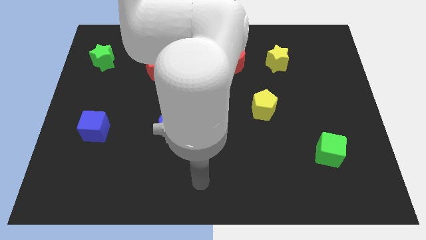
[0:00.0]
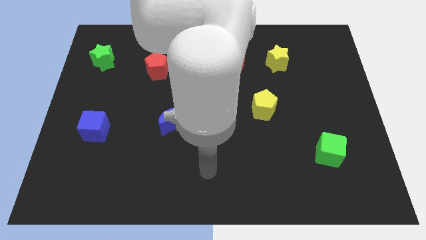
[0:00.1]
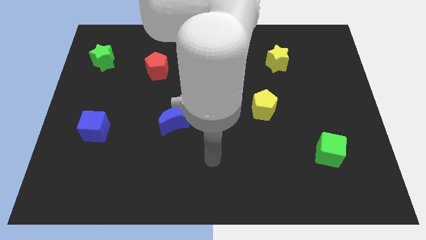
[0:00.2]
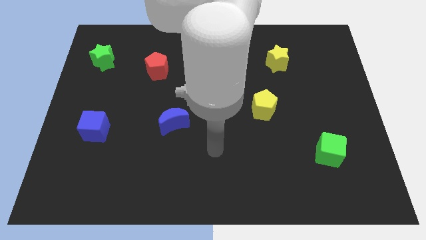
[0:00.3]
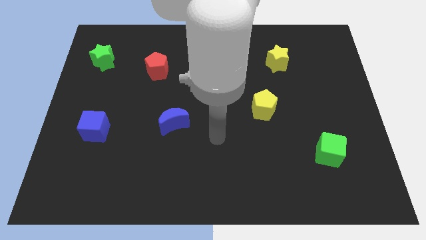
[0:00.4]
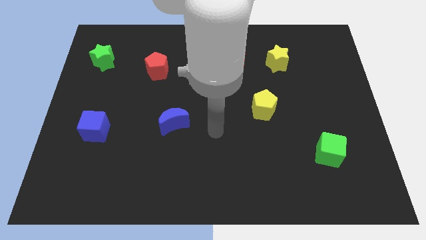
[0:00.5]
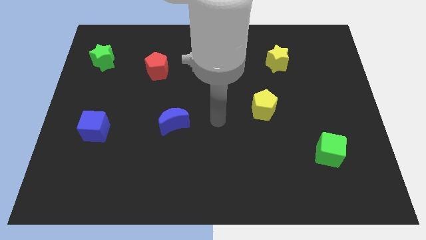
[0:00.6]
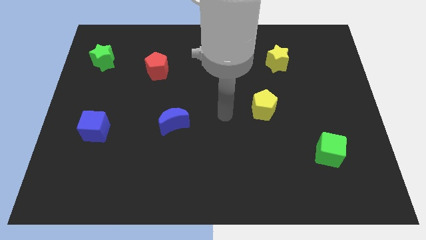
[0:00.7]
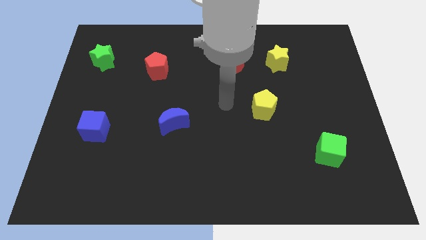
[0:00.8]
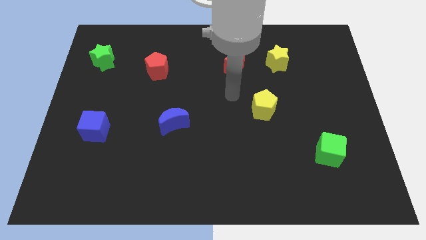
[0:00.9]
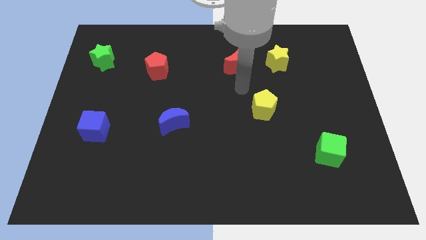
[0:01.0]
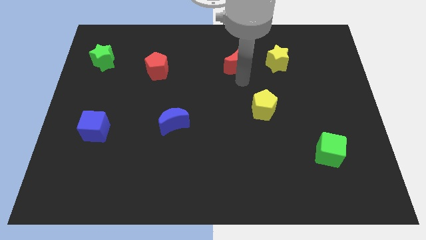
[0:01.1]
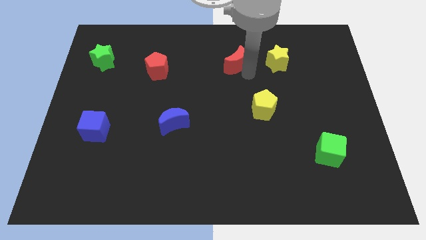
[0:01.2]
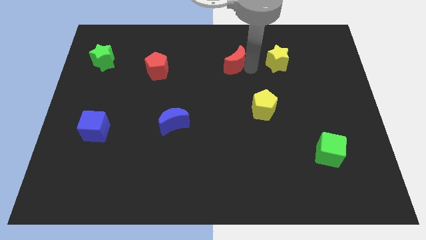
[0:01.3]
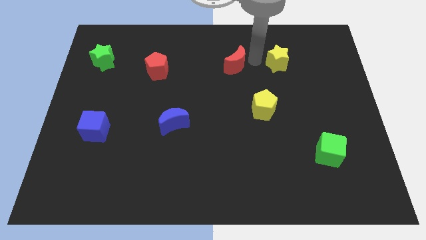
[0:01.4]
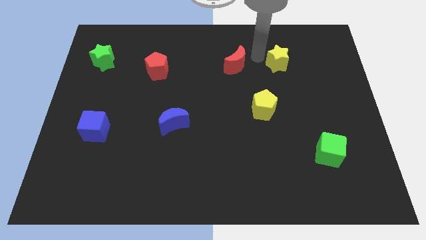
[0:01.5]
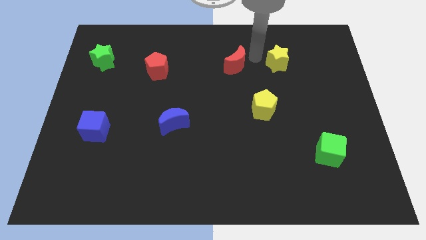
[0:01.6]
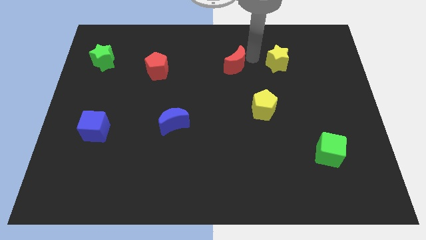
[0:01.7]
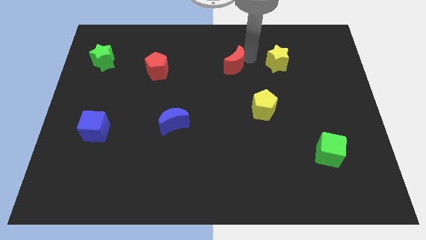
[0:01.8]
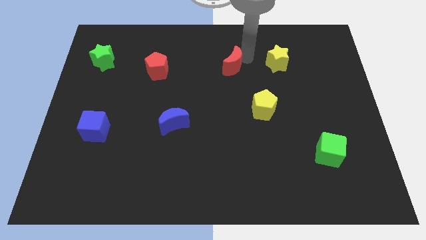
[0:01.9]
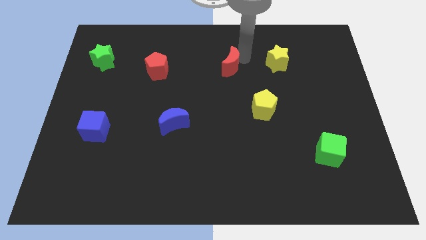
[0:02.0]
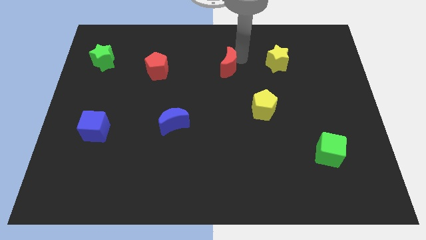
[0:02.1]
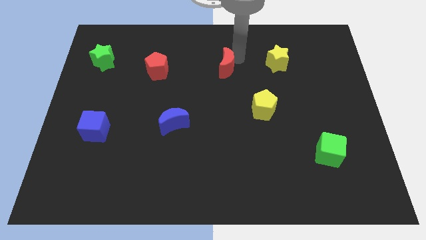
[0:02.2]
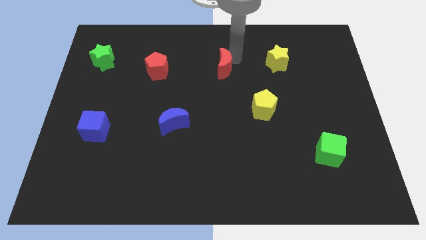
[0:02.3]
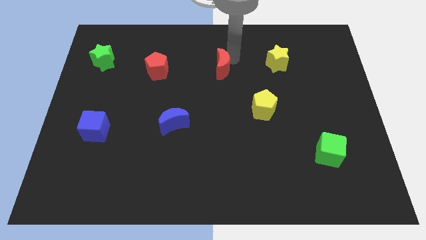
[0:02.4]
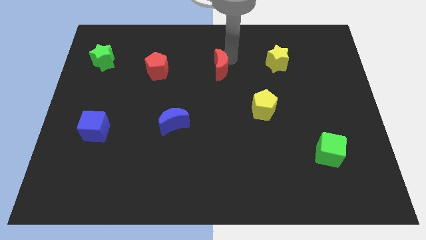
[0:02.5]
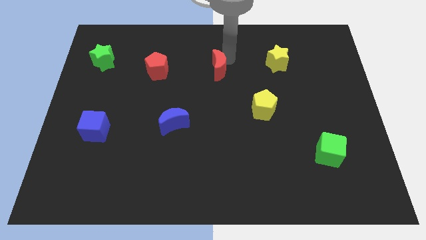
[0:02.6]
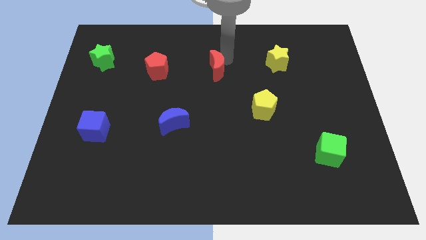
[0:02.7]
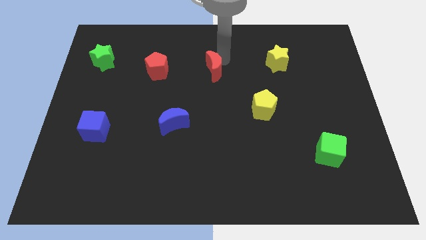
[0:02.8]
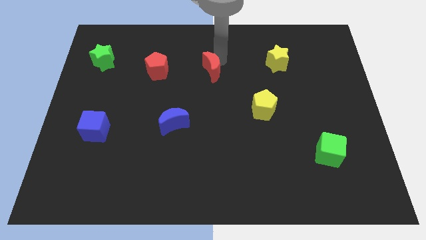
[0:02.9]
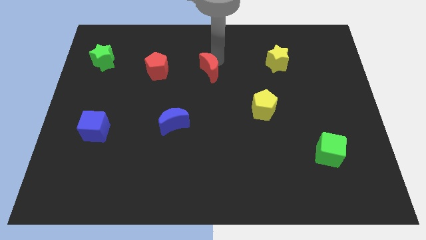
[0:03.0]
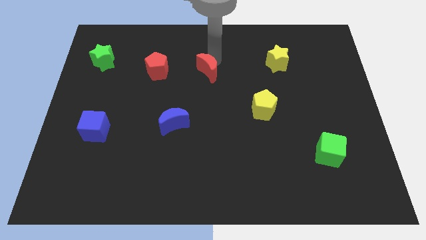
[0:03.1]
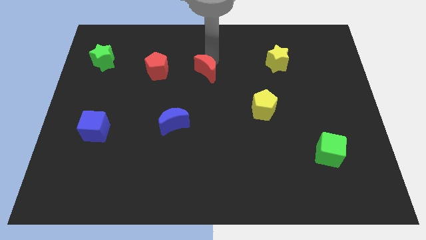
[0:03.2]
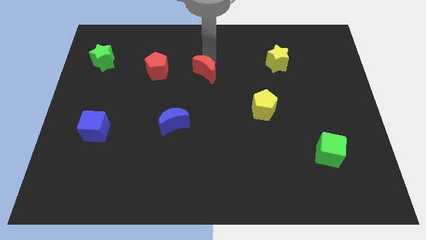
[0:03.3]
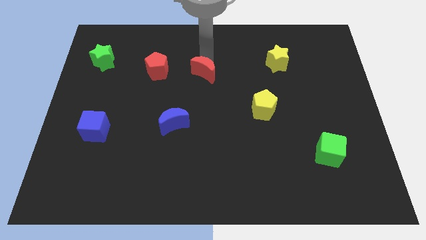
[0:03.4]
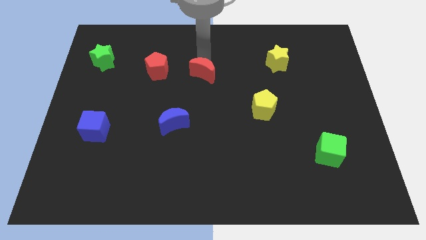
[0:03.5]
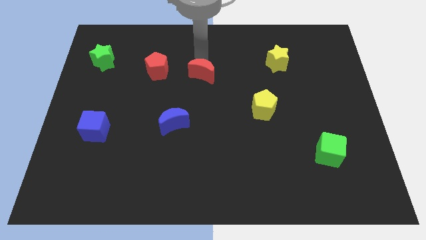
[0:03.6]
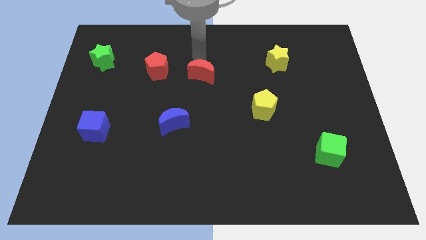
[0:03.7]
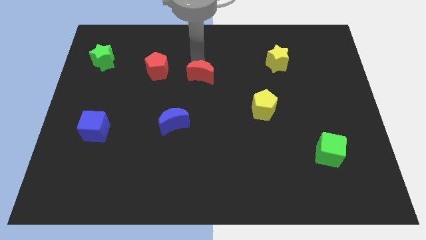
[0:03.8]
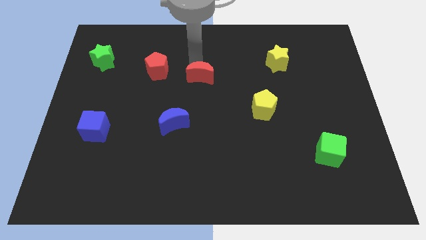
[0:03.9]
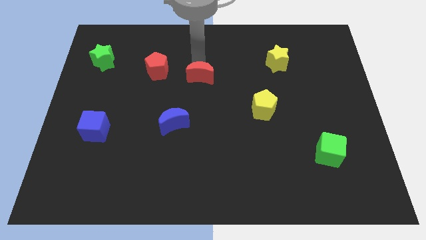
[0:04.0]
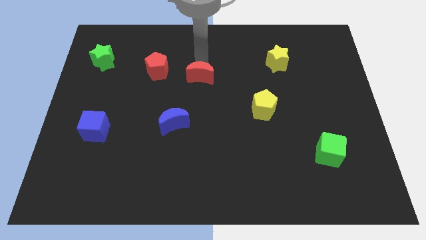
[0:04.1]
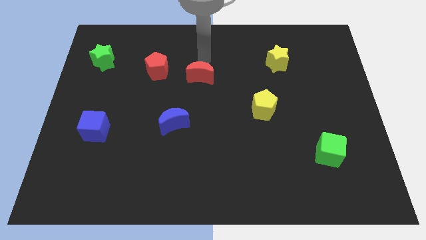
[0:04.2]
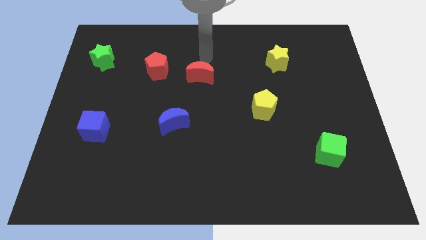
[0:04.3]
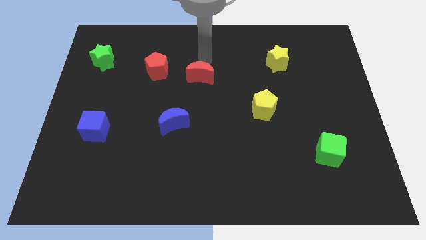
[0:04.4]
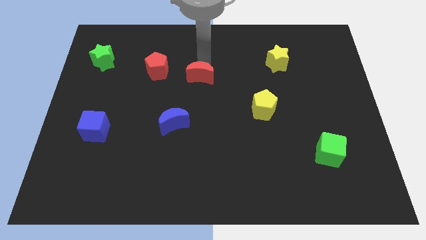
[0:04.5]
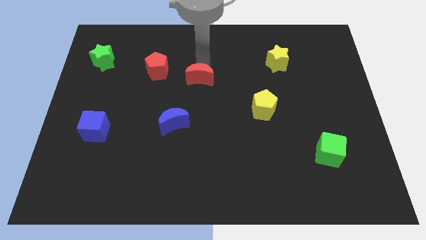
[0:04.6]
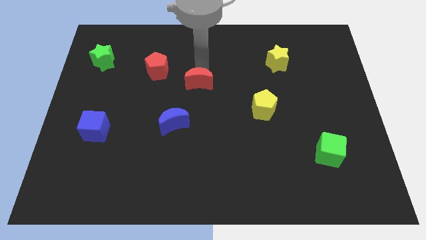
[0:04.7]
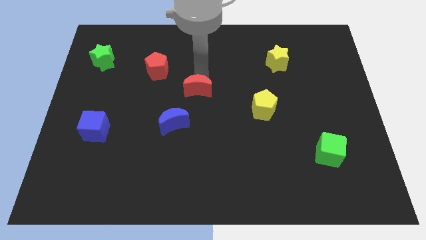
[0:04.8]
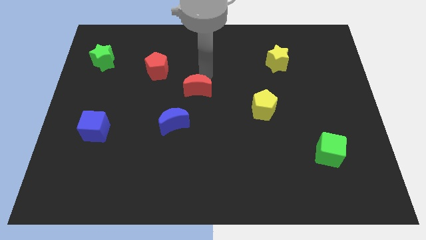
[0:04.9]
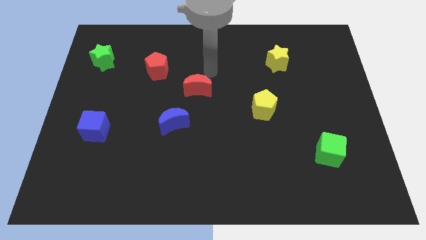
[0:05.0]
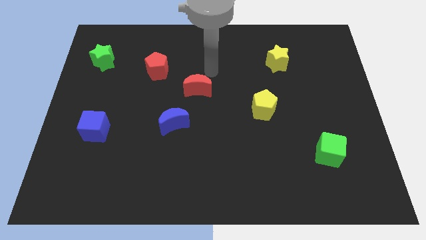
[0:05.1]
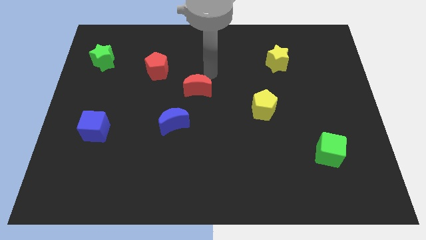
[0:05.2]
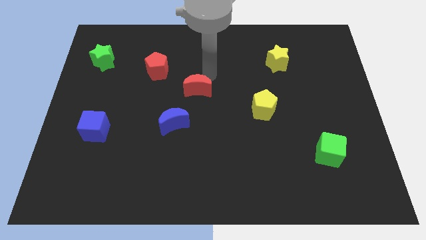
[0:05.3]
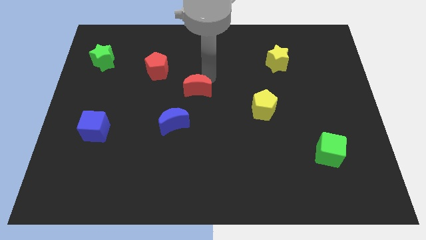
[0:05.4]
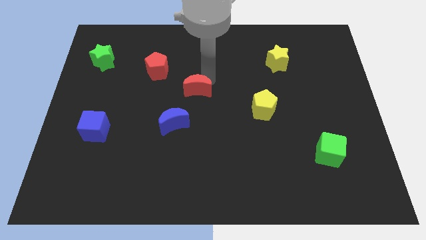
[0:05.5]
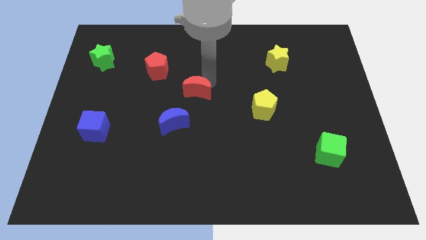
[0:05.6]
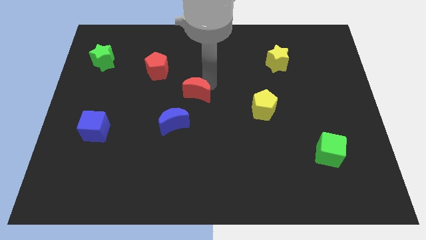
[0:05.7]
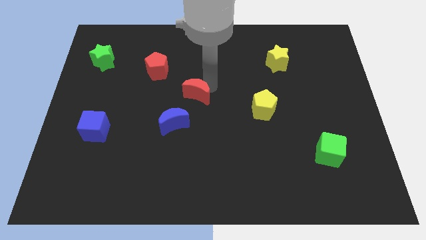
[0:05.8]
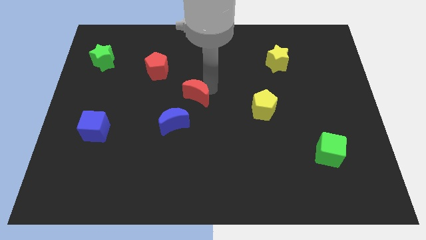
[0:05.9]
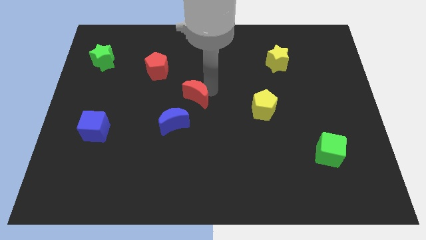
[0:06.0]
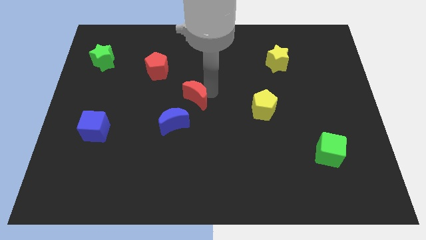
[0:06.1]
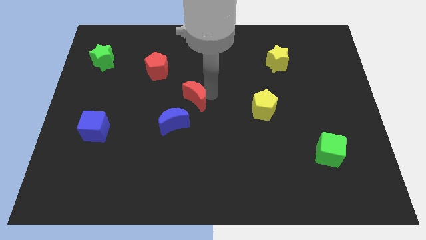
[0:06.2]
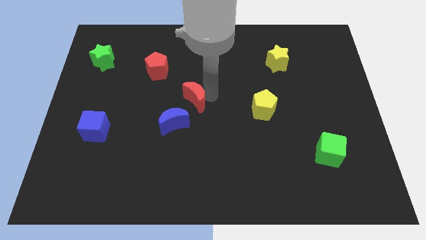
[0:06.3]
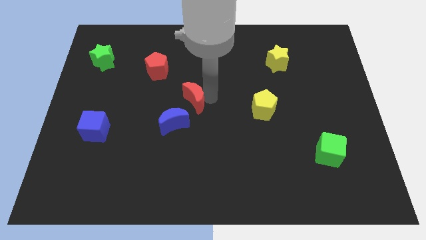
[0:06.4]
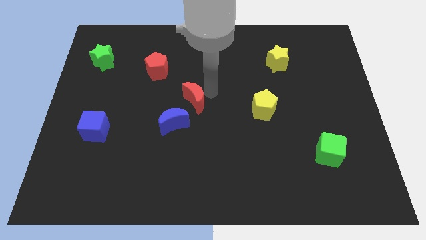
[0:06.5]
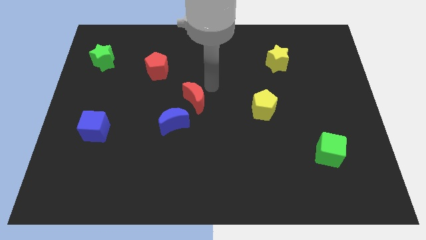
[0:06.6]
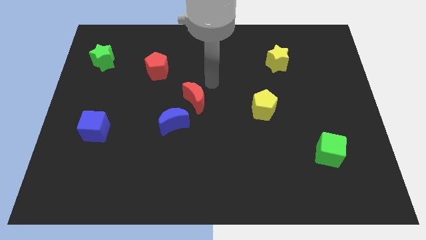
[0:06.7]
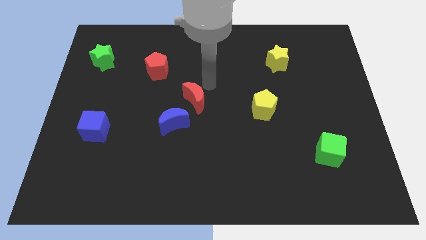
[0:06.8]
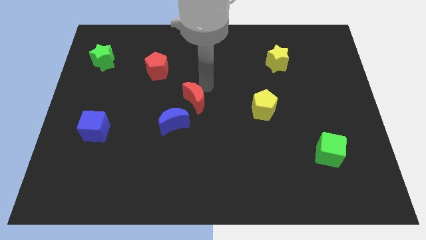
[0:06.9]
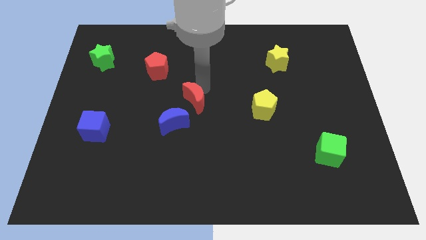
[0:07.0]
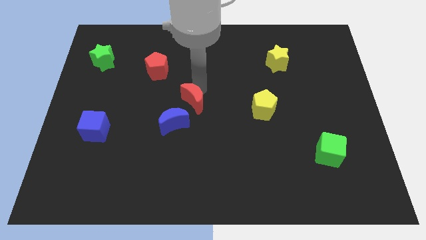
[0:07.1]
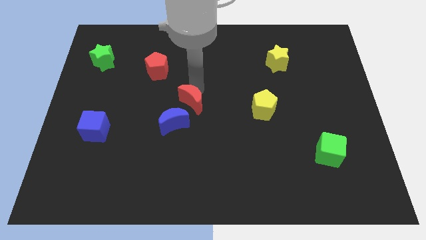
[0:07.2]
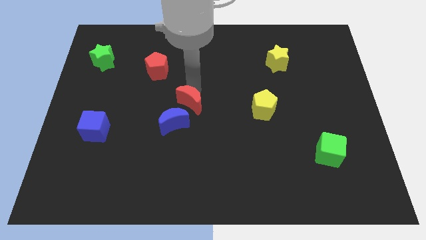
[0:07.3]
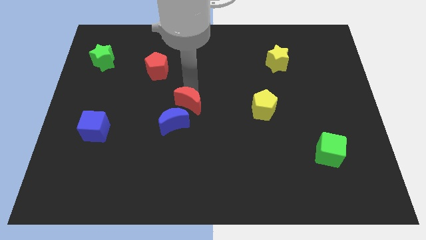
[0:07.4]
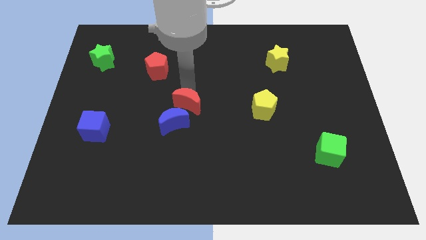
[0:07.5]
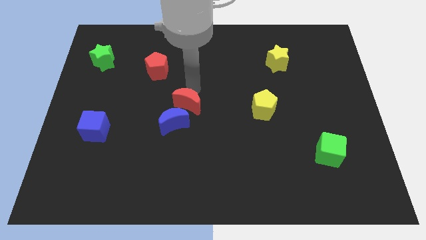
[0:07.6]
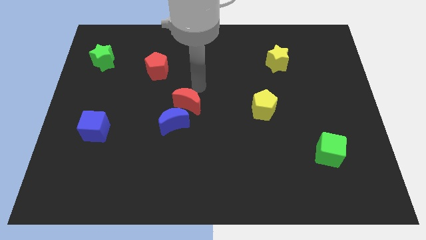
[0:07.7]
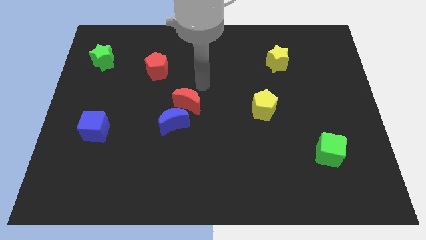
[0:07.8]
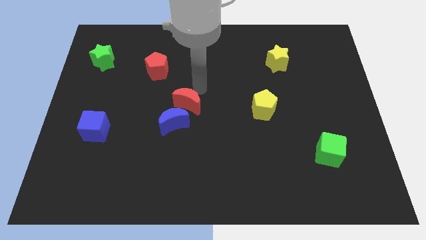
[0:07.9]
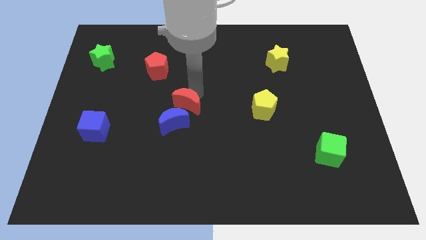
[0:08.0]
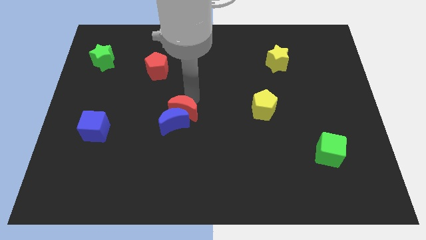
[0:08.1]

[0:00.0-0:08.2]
put the red moon next to the blue moon
